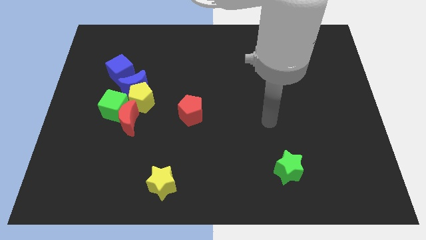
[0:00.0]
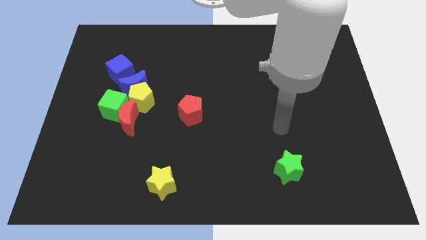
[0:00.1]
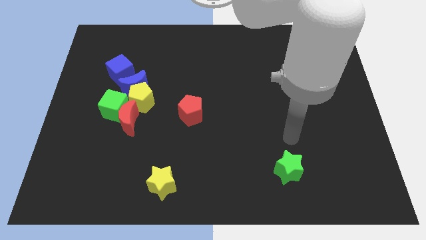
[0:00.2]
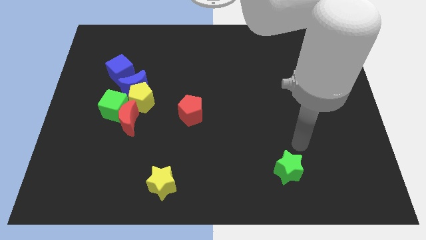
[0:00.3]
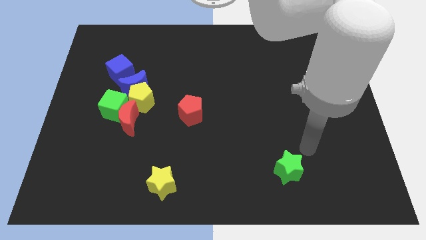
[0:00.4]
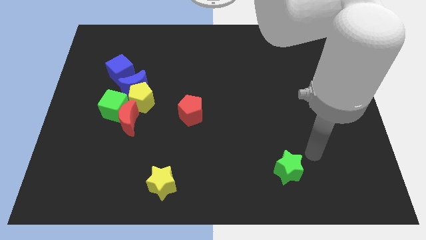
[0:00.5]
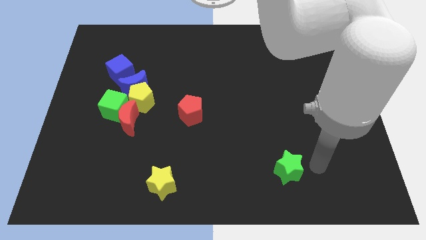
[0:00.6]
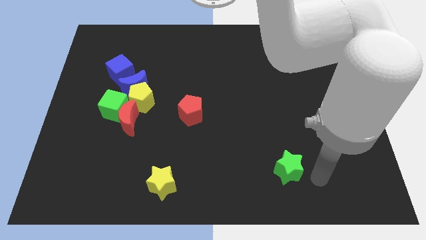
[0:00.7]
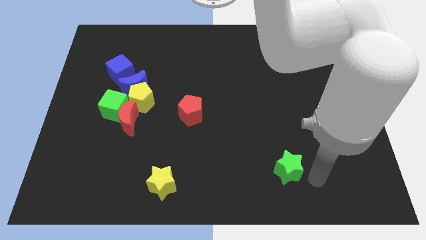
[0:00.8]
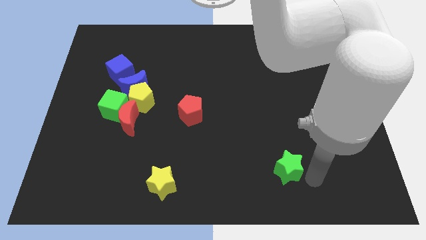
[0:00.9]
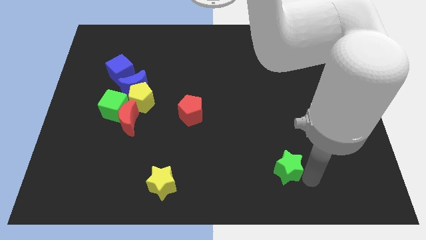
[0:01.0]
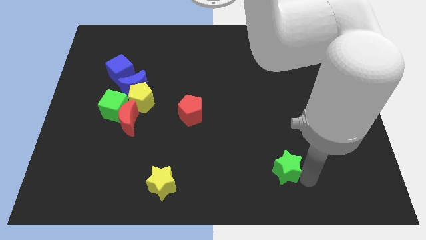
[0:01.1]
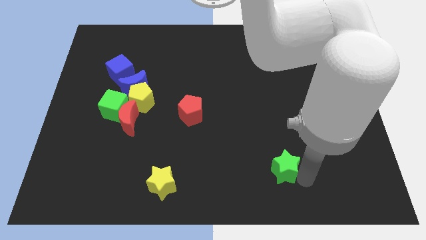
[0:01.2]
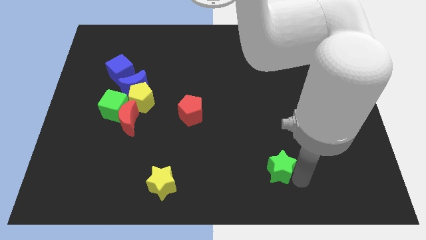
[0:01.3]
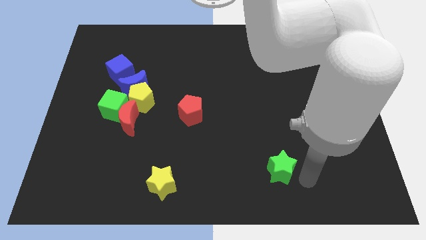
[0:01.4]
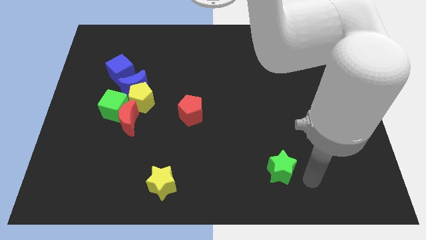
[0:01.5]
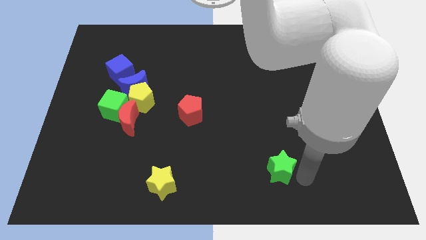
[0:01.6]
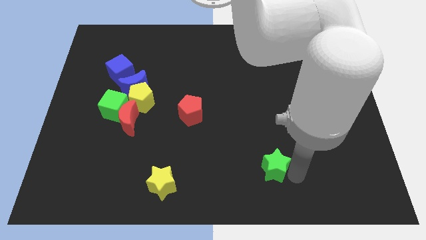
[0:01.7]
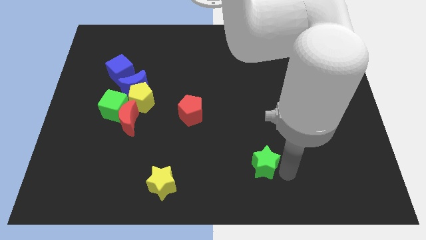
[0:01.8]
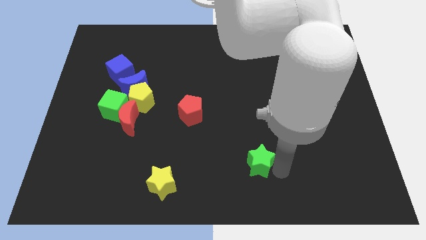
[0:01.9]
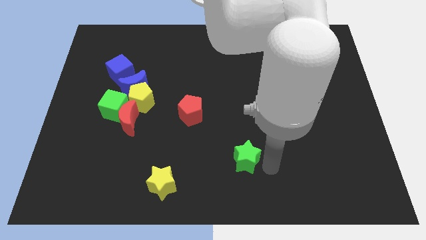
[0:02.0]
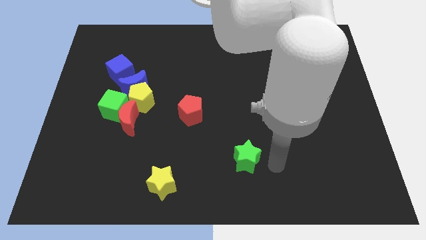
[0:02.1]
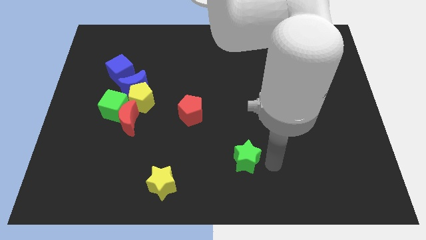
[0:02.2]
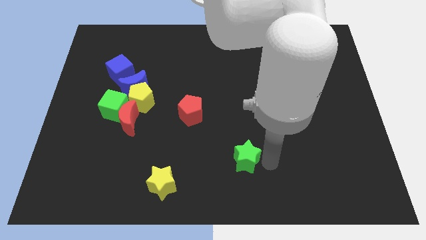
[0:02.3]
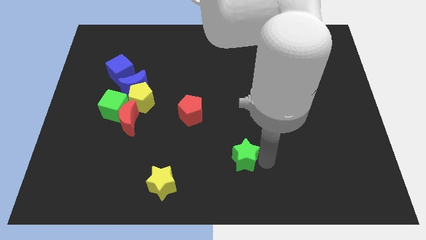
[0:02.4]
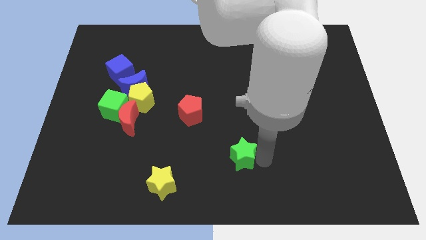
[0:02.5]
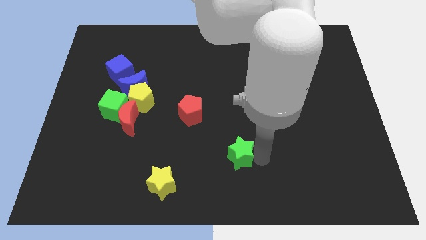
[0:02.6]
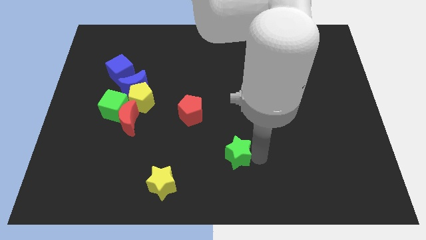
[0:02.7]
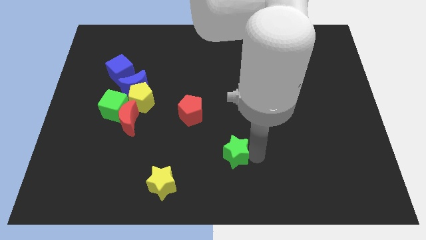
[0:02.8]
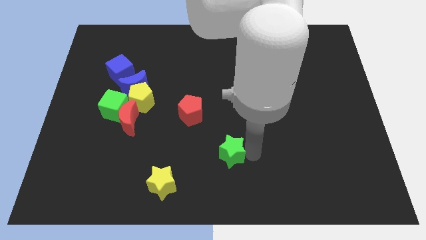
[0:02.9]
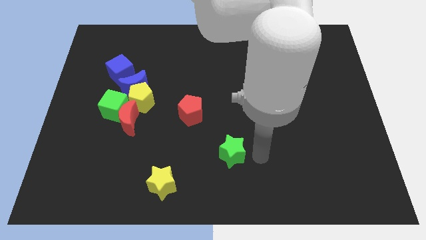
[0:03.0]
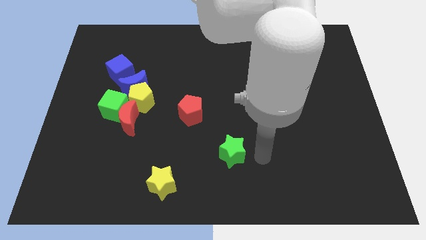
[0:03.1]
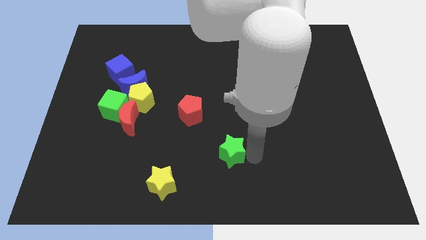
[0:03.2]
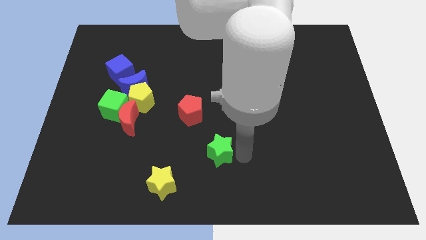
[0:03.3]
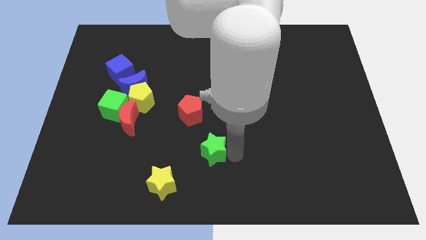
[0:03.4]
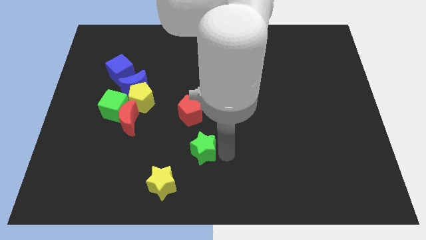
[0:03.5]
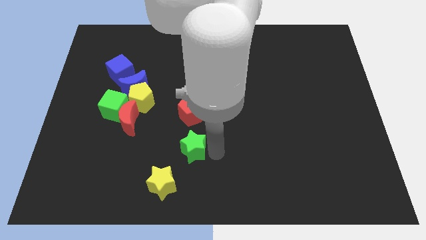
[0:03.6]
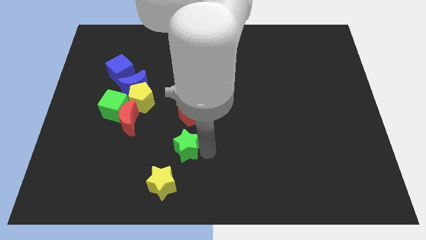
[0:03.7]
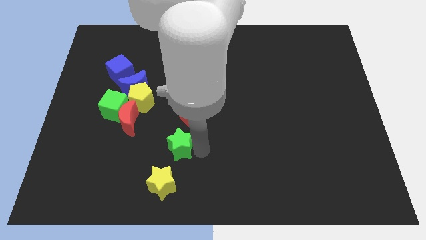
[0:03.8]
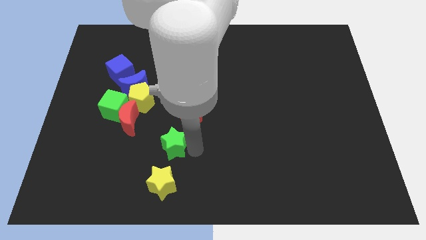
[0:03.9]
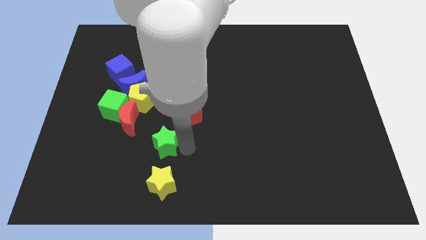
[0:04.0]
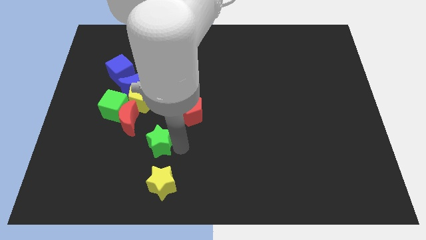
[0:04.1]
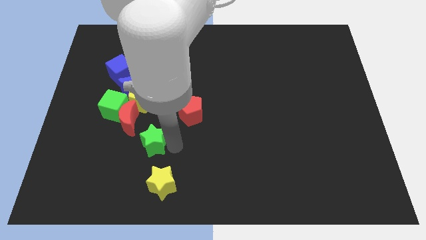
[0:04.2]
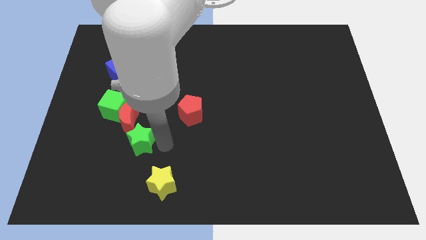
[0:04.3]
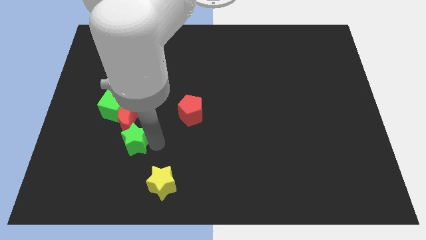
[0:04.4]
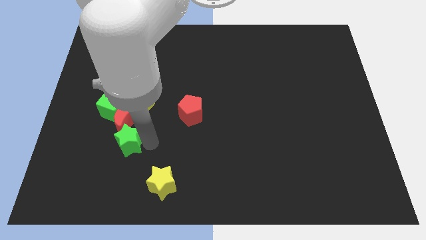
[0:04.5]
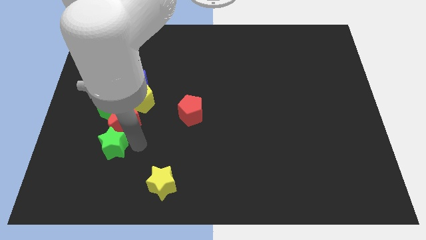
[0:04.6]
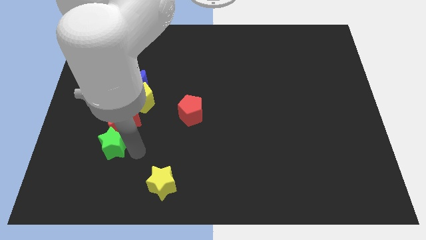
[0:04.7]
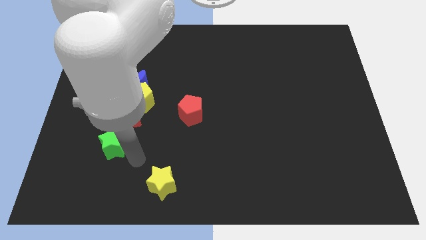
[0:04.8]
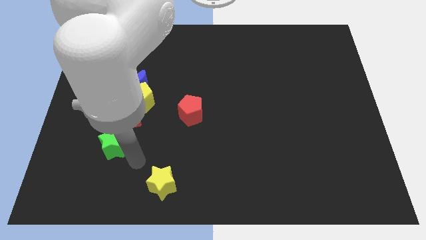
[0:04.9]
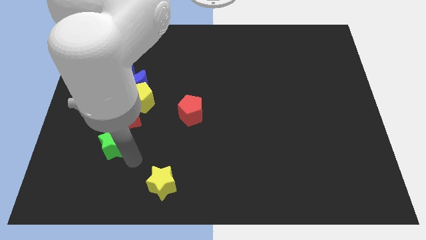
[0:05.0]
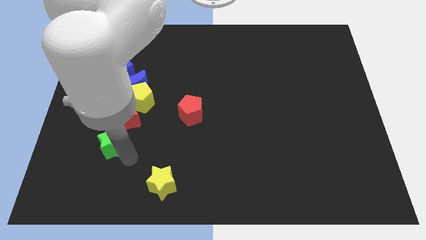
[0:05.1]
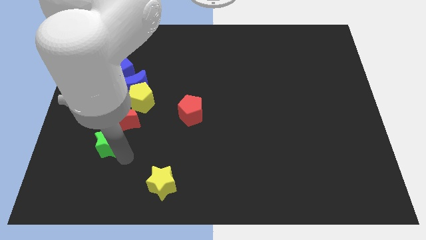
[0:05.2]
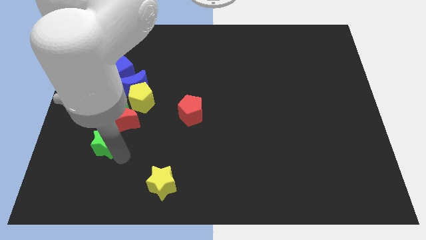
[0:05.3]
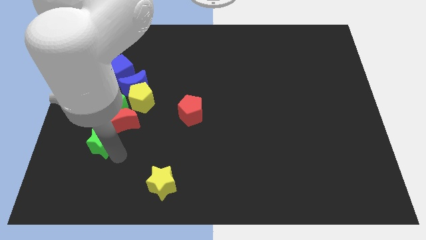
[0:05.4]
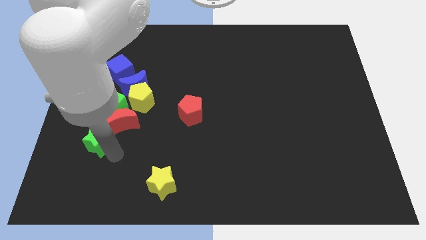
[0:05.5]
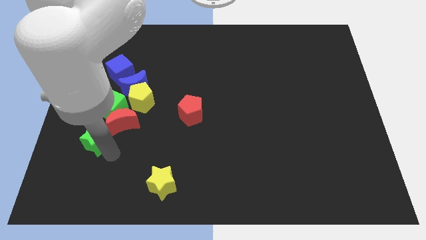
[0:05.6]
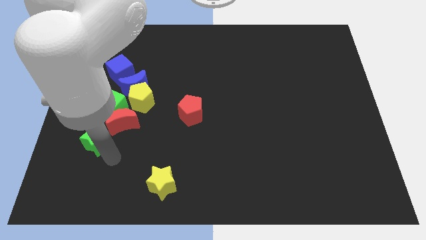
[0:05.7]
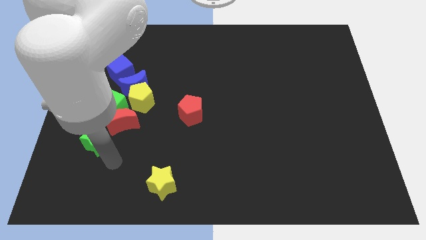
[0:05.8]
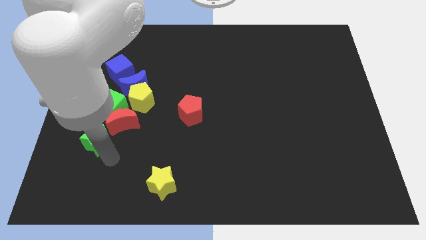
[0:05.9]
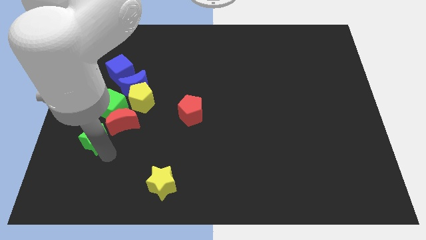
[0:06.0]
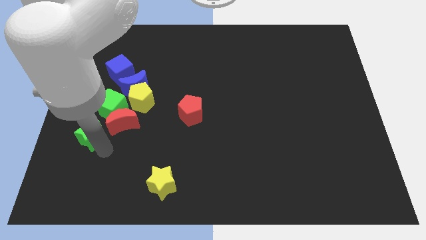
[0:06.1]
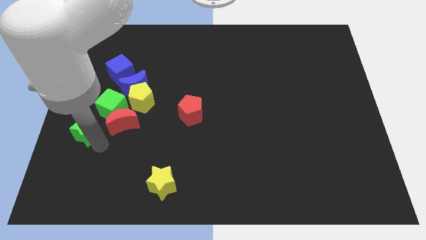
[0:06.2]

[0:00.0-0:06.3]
move the green star to the left side

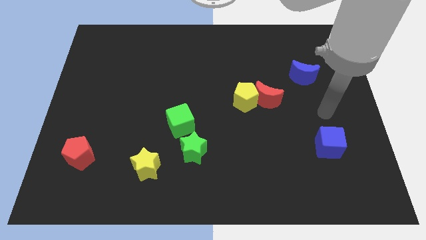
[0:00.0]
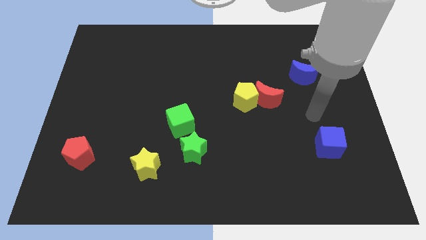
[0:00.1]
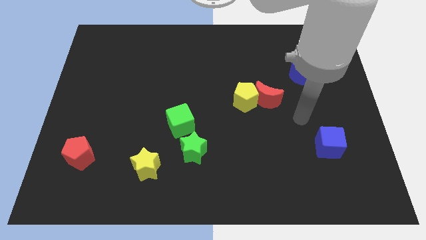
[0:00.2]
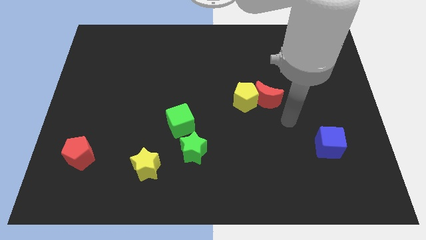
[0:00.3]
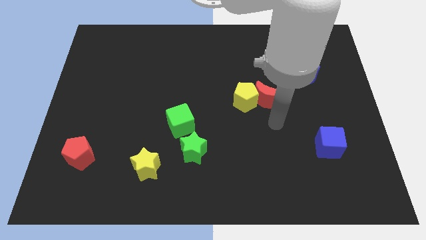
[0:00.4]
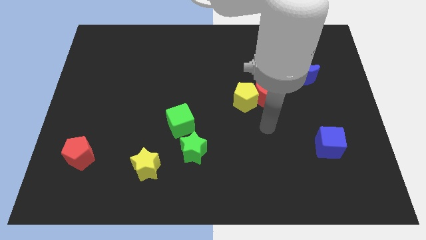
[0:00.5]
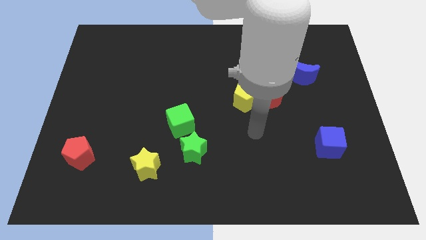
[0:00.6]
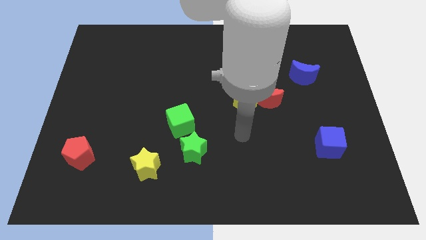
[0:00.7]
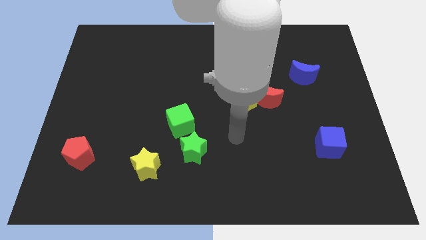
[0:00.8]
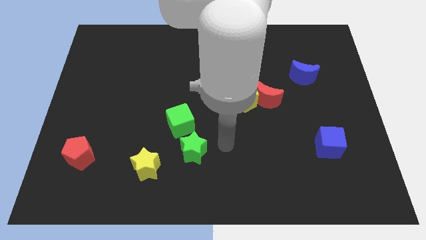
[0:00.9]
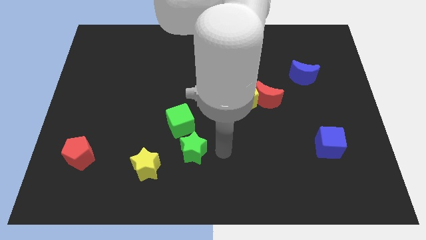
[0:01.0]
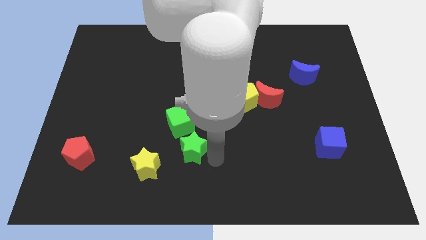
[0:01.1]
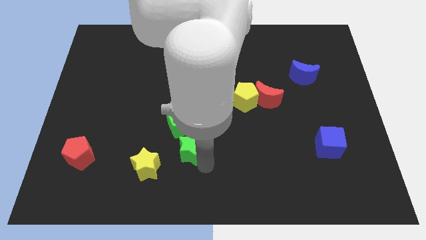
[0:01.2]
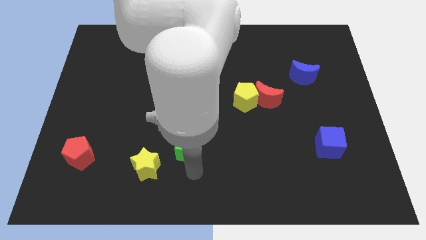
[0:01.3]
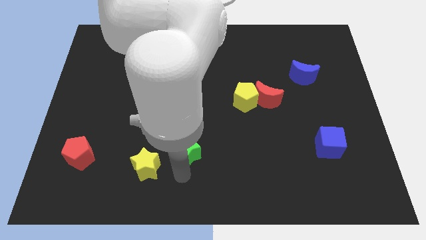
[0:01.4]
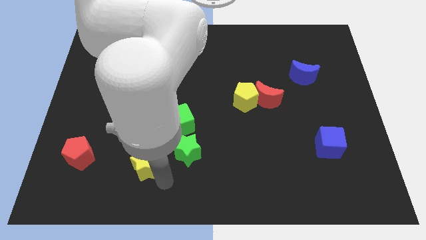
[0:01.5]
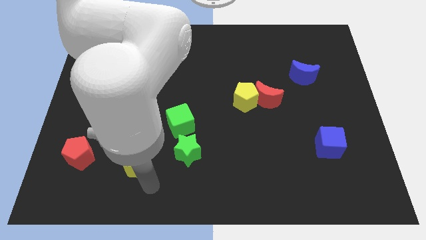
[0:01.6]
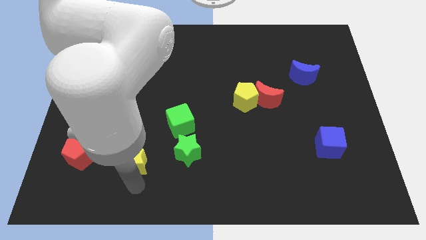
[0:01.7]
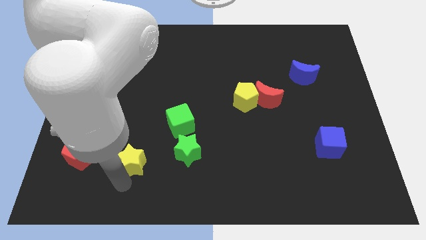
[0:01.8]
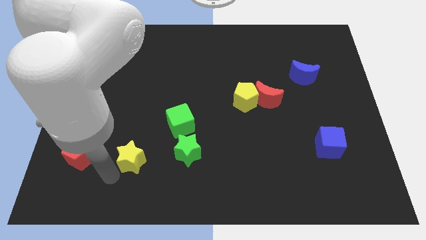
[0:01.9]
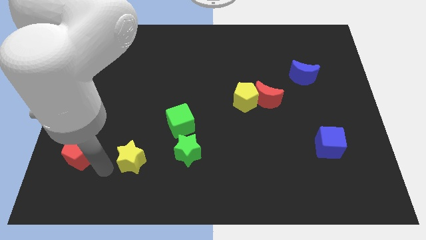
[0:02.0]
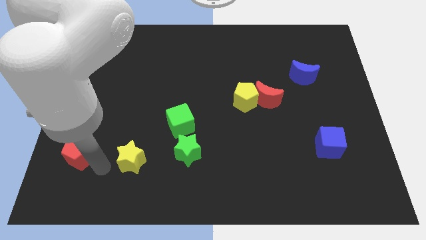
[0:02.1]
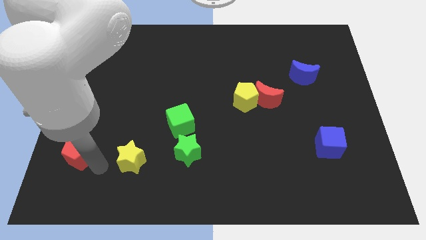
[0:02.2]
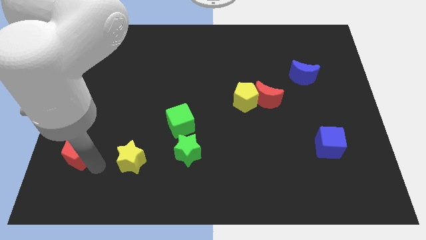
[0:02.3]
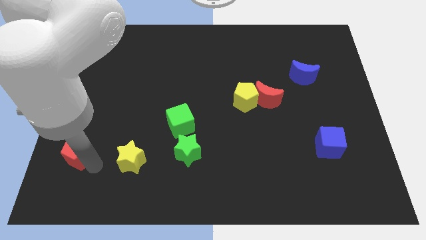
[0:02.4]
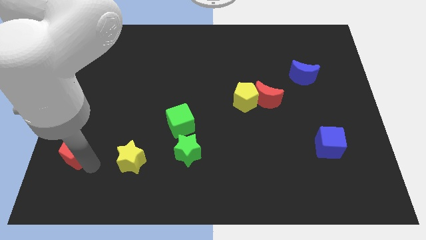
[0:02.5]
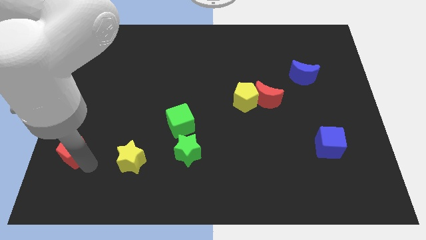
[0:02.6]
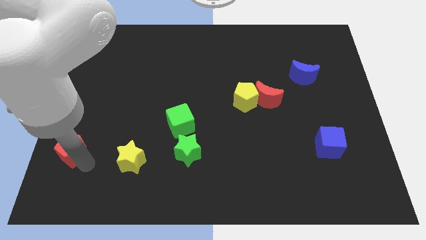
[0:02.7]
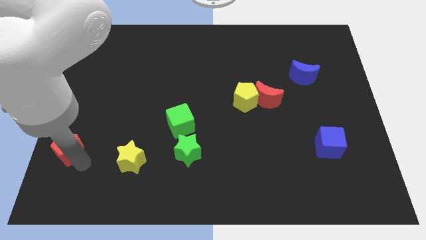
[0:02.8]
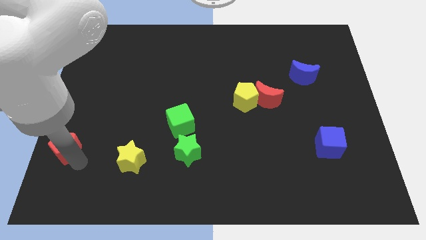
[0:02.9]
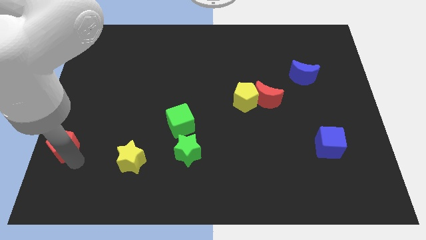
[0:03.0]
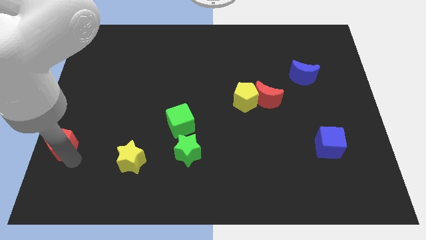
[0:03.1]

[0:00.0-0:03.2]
slide the red pentagon to the center left
